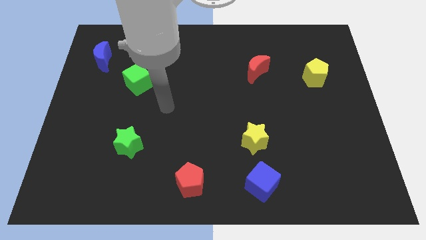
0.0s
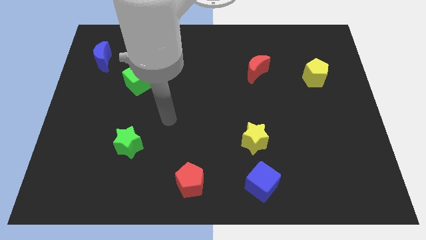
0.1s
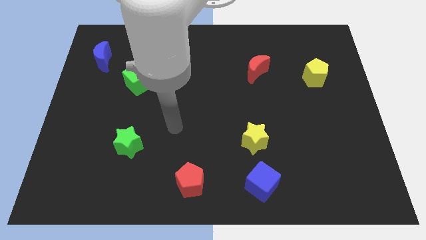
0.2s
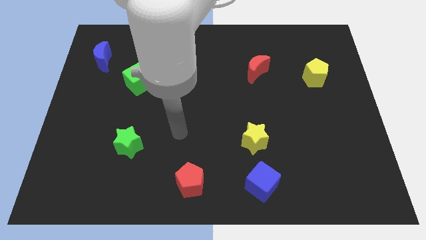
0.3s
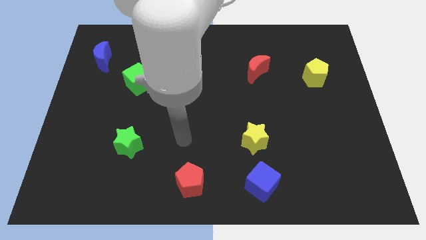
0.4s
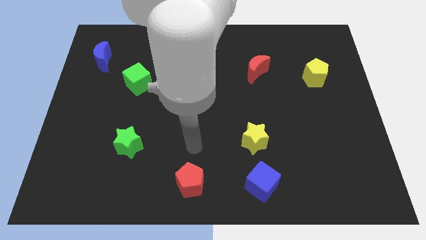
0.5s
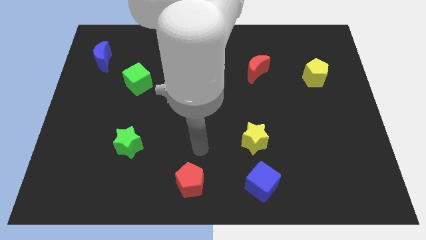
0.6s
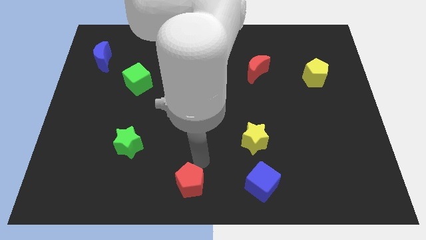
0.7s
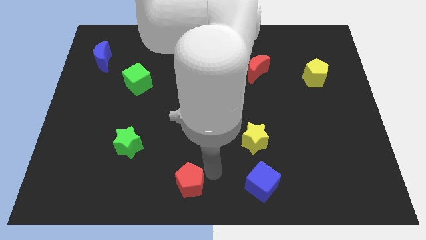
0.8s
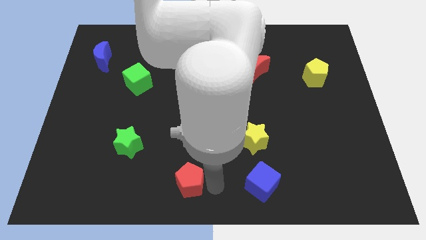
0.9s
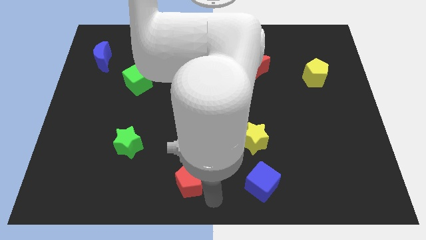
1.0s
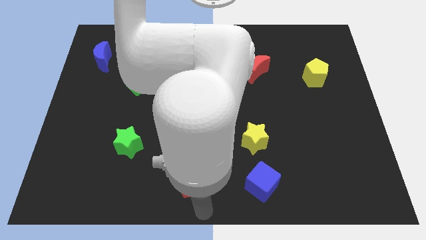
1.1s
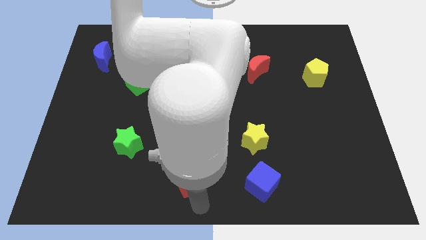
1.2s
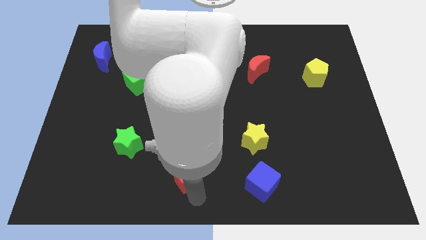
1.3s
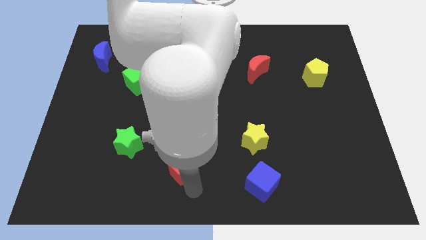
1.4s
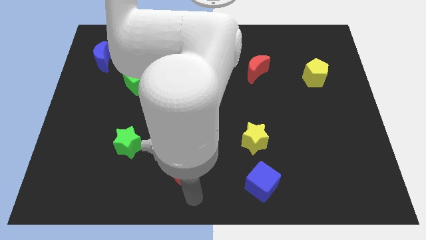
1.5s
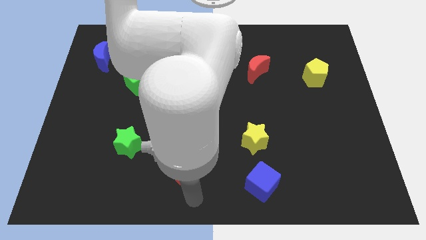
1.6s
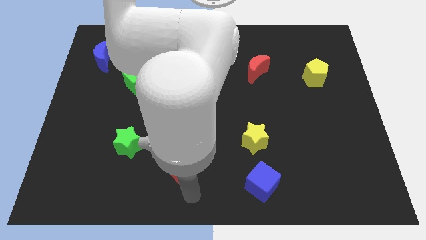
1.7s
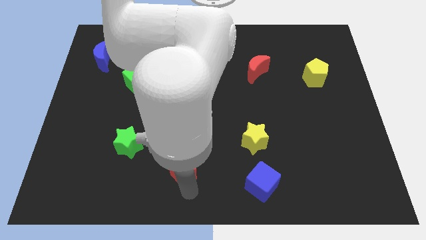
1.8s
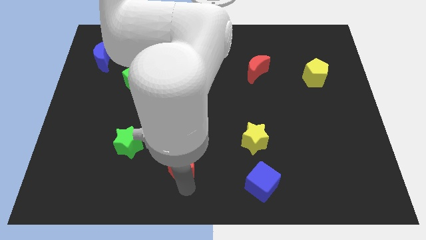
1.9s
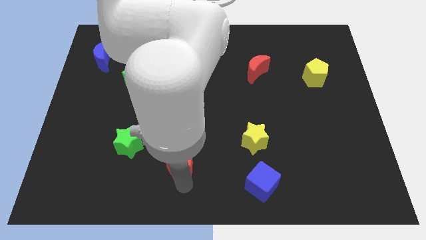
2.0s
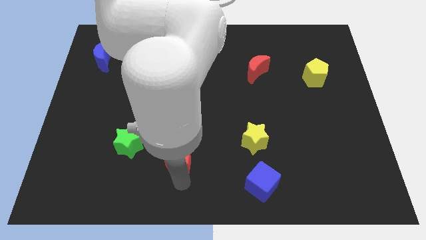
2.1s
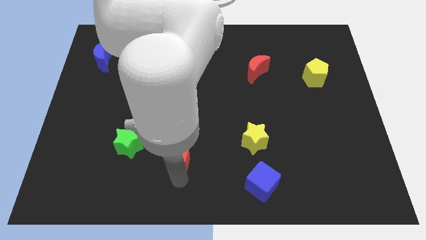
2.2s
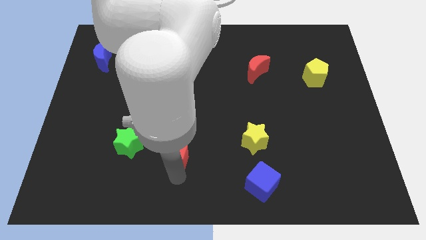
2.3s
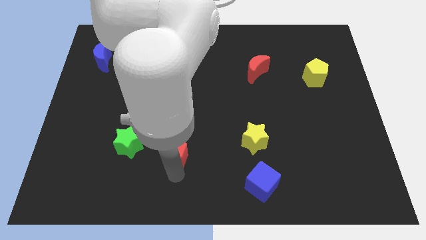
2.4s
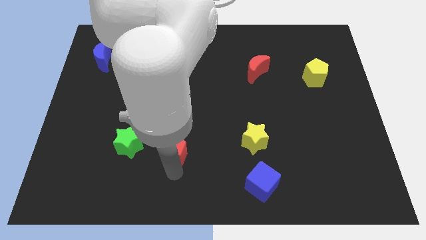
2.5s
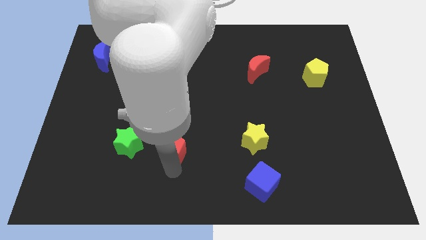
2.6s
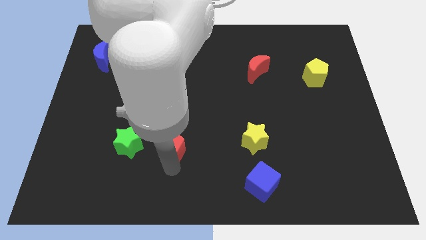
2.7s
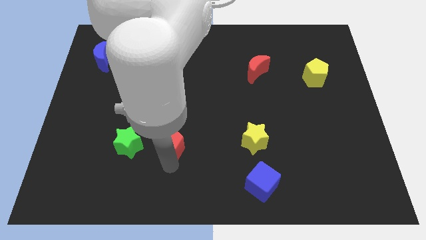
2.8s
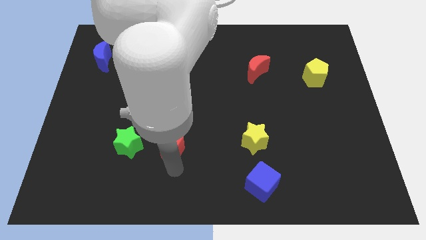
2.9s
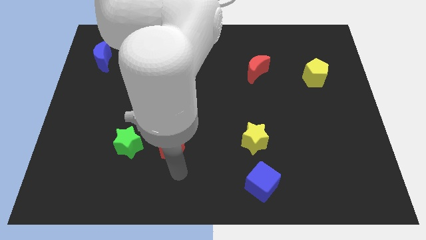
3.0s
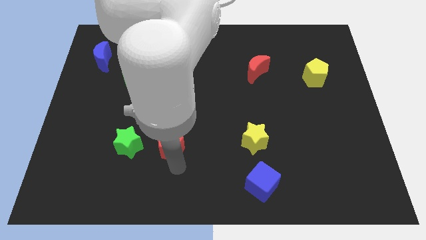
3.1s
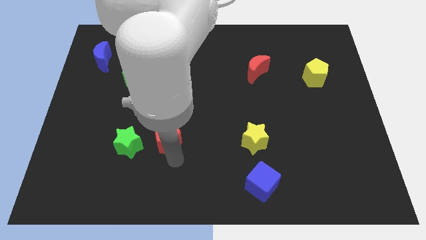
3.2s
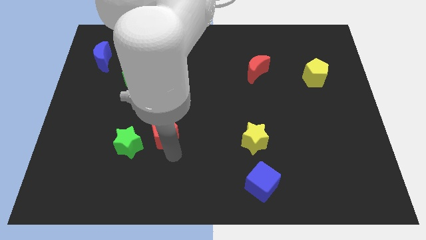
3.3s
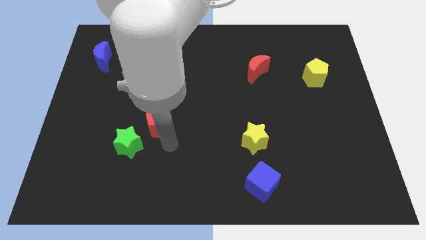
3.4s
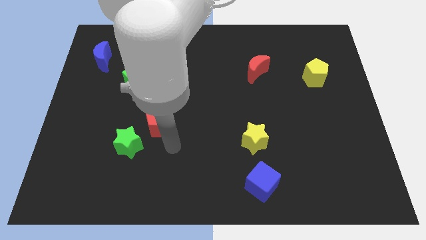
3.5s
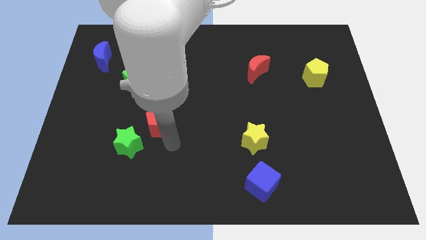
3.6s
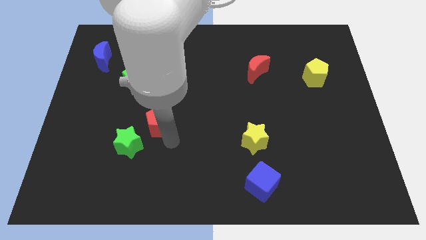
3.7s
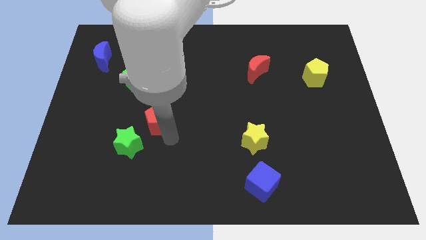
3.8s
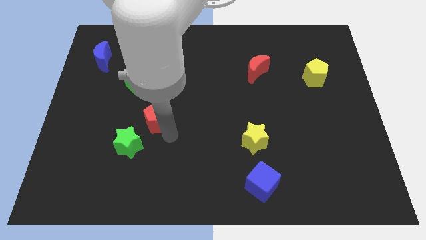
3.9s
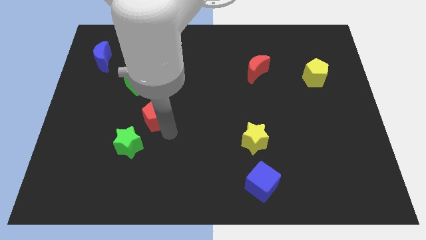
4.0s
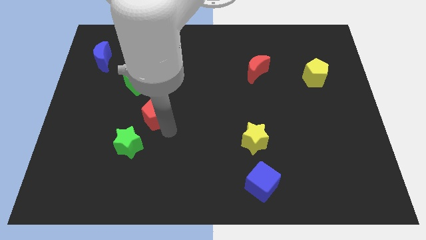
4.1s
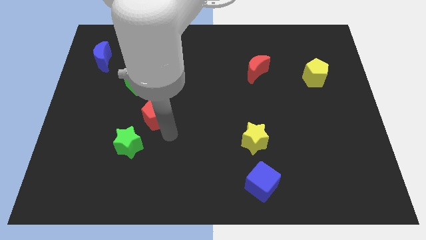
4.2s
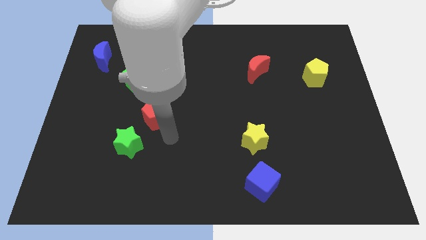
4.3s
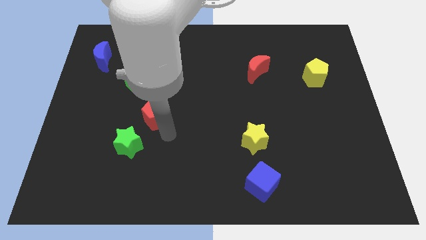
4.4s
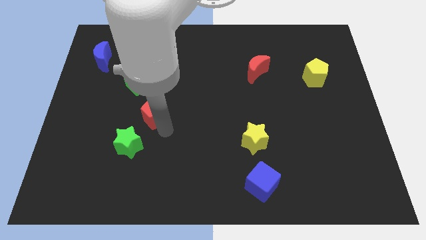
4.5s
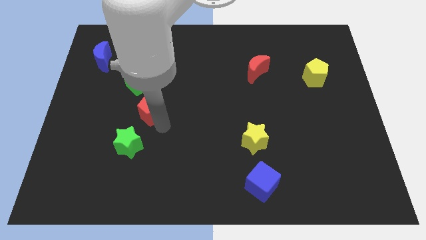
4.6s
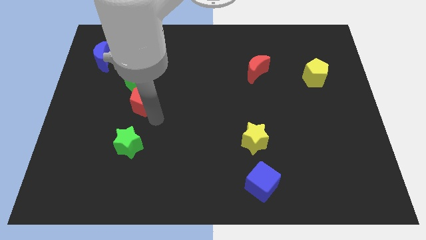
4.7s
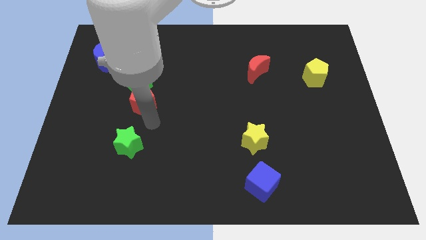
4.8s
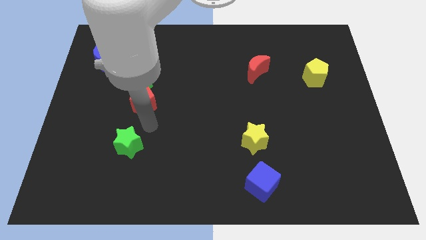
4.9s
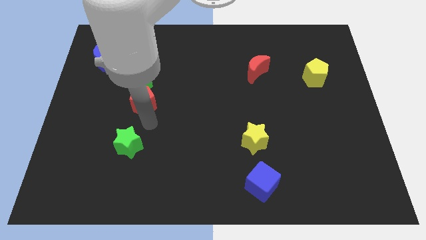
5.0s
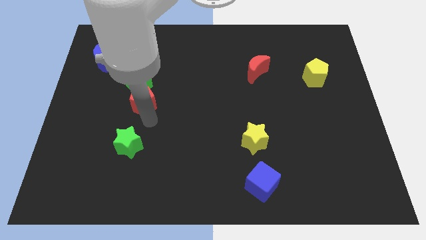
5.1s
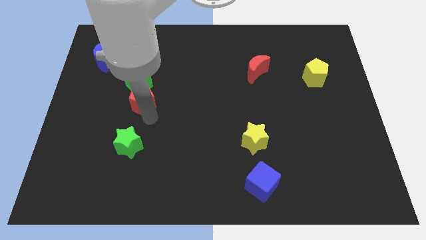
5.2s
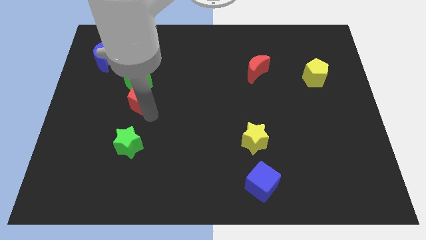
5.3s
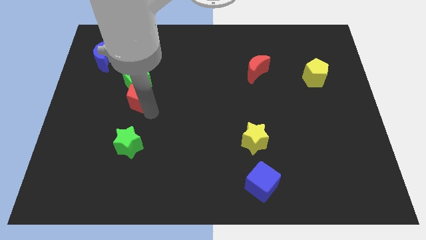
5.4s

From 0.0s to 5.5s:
put the red pentagon next to the green cube

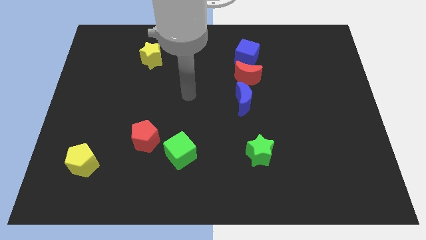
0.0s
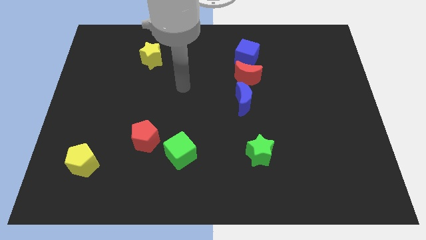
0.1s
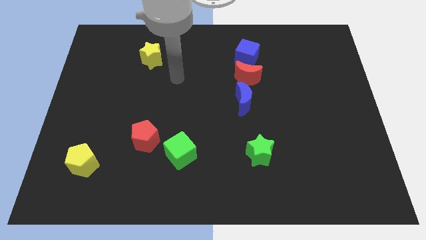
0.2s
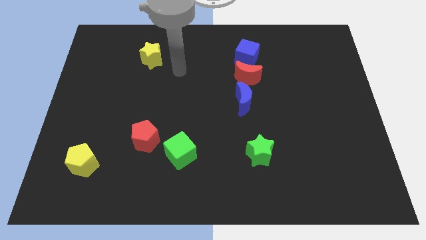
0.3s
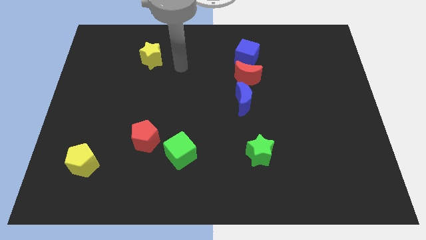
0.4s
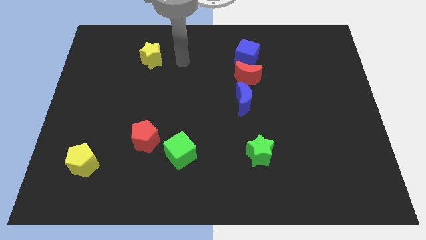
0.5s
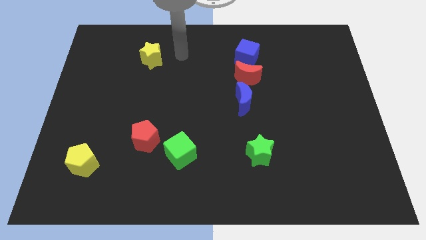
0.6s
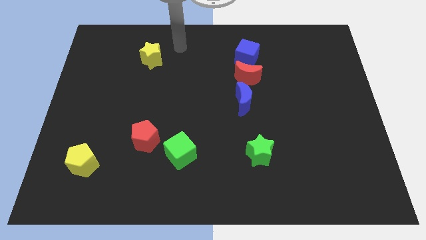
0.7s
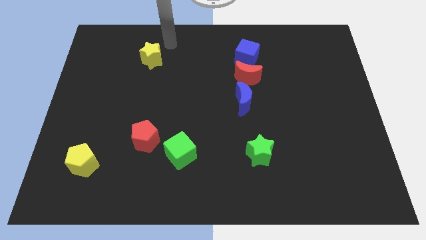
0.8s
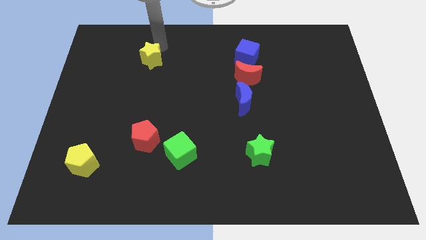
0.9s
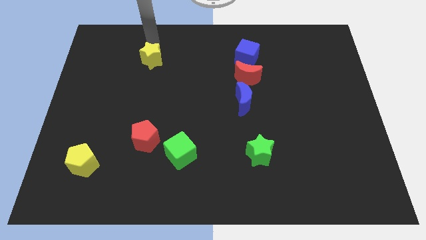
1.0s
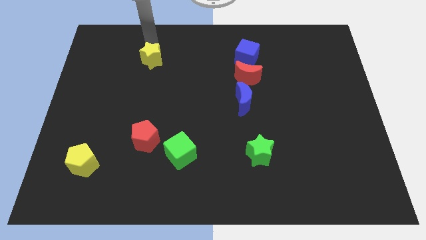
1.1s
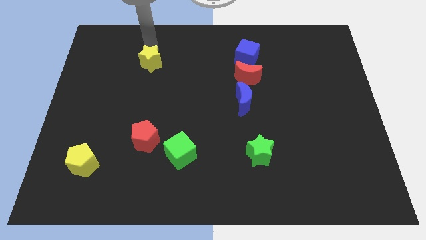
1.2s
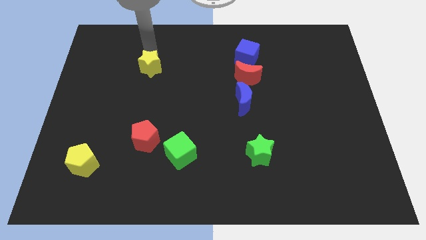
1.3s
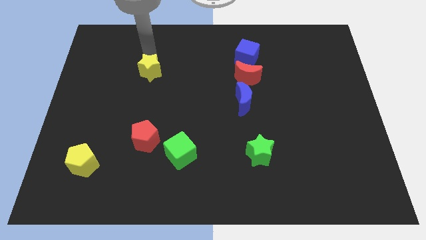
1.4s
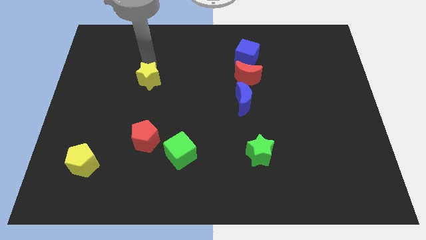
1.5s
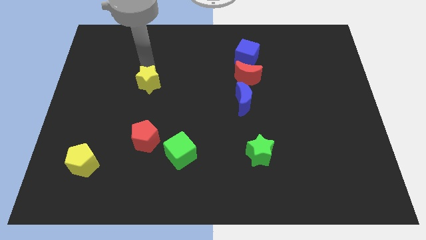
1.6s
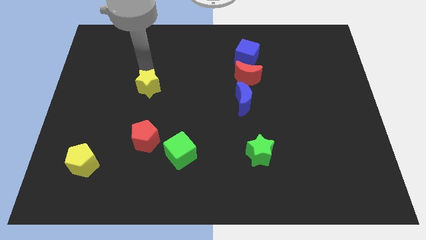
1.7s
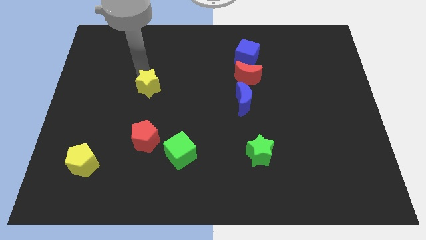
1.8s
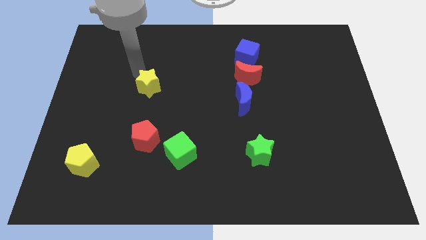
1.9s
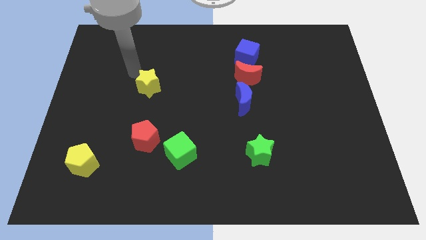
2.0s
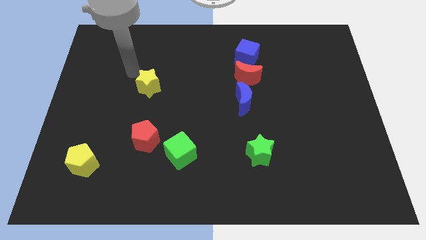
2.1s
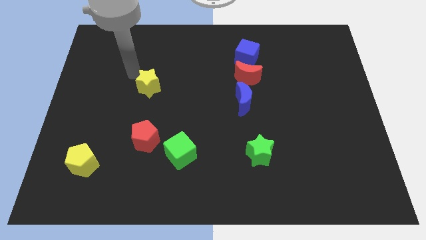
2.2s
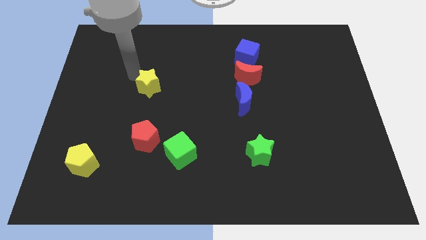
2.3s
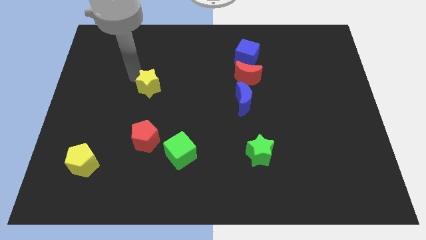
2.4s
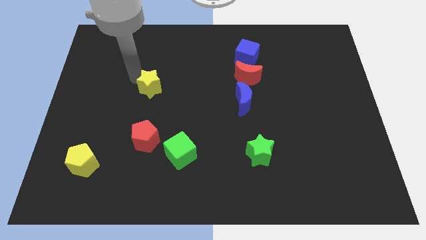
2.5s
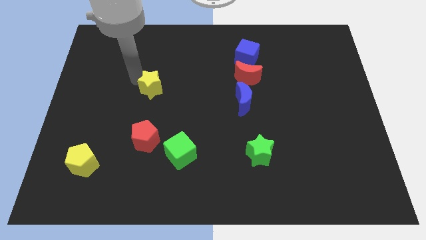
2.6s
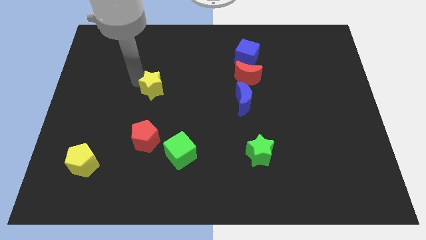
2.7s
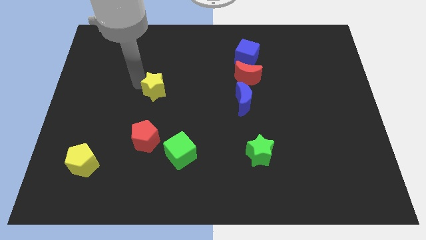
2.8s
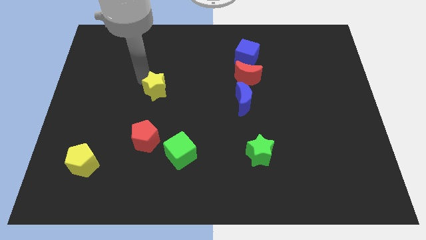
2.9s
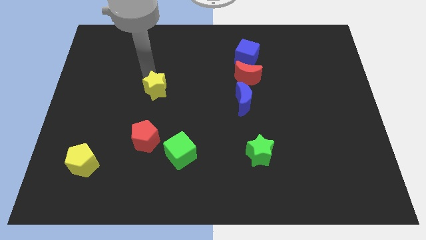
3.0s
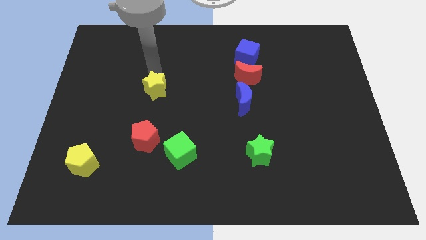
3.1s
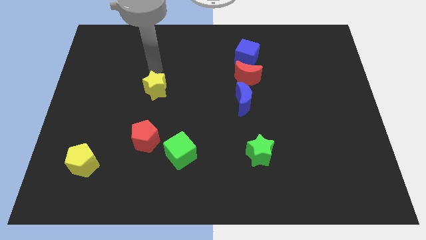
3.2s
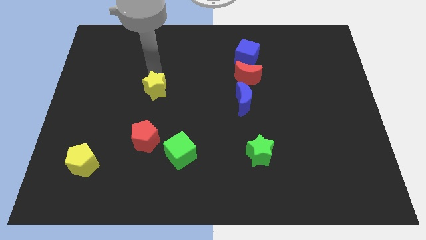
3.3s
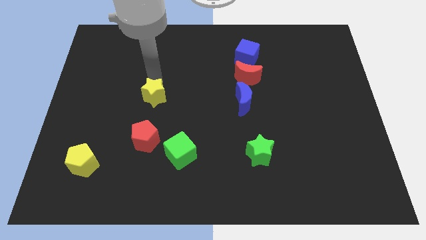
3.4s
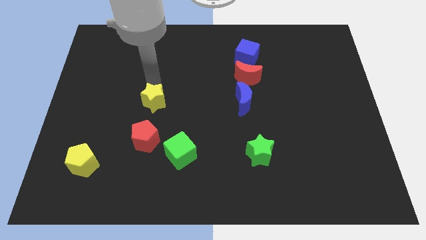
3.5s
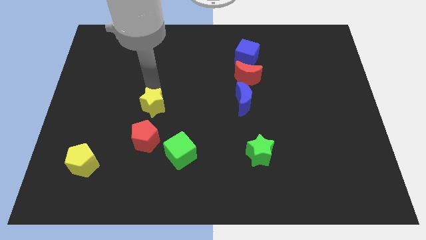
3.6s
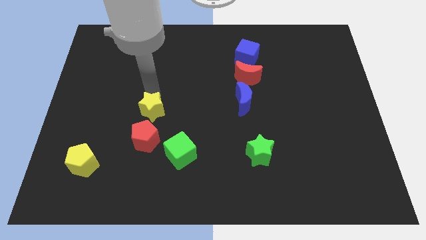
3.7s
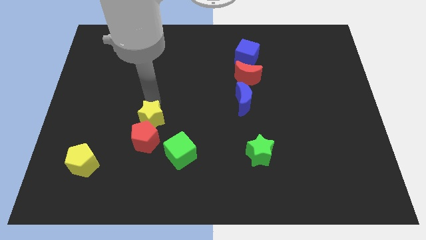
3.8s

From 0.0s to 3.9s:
slide the yellow star to the red pentagon
